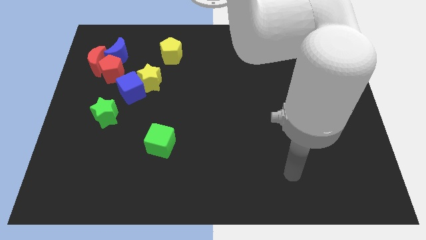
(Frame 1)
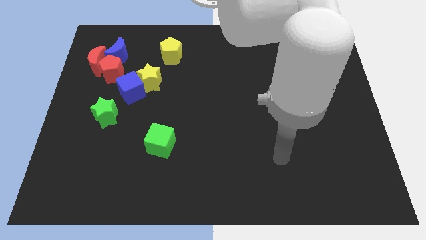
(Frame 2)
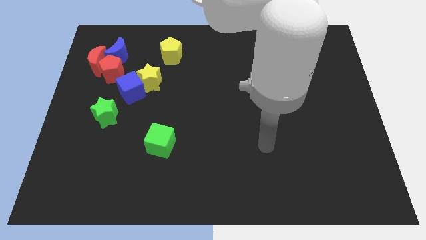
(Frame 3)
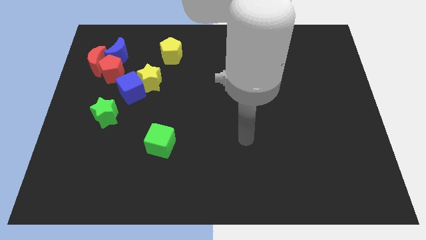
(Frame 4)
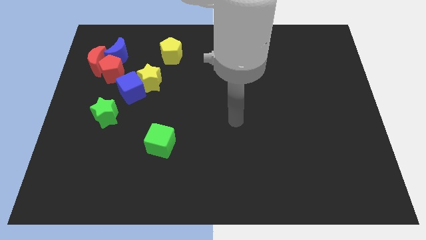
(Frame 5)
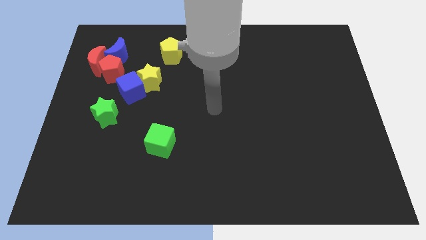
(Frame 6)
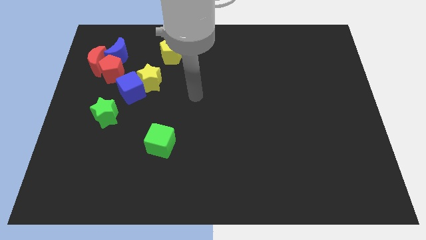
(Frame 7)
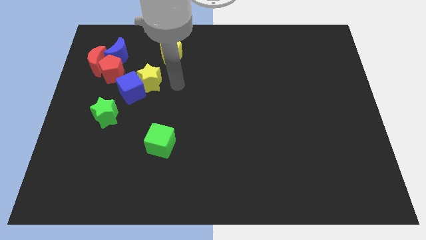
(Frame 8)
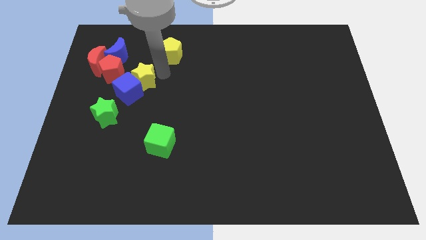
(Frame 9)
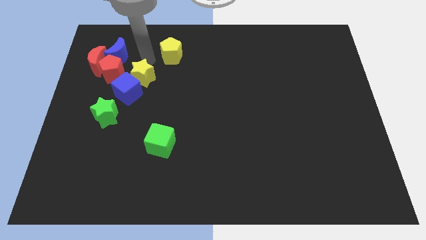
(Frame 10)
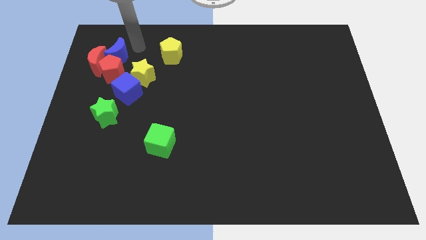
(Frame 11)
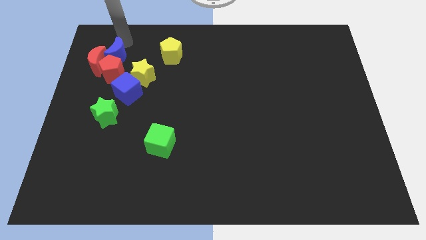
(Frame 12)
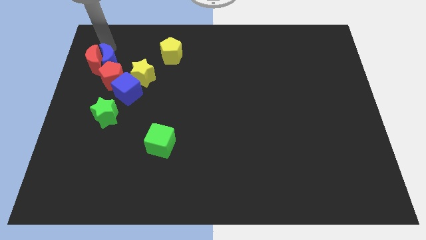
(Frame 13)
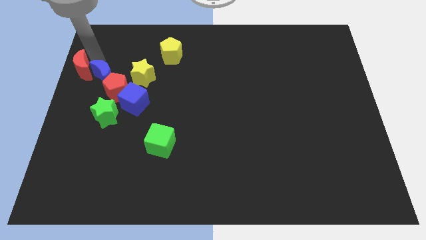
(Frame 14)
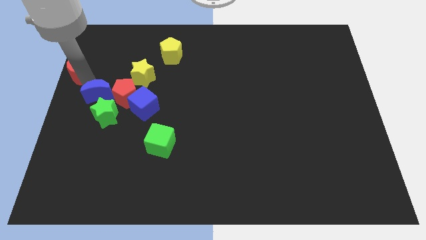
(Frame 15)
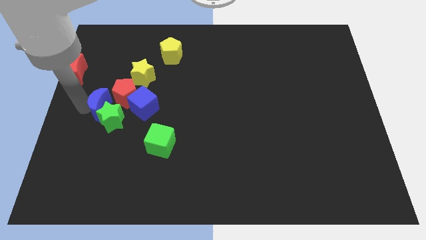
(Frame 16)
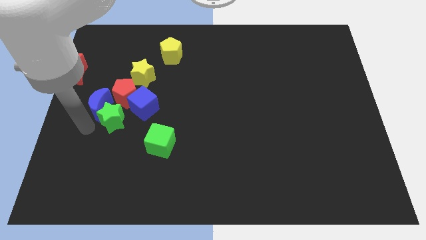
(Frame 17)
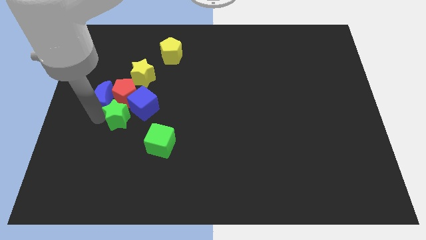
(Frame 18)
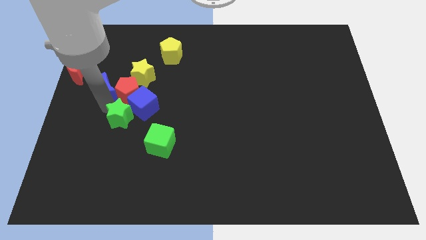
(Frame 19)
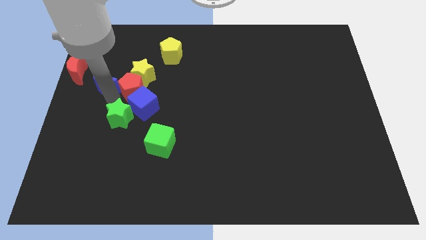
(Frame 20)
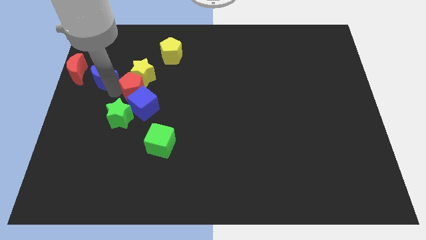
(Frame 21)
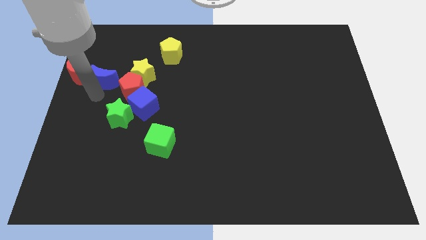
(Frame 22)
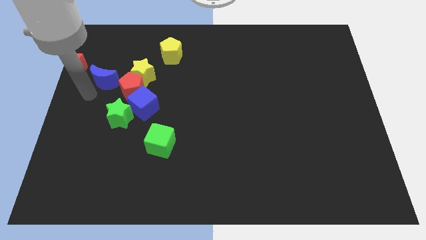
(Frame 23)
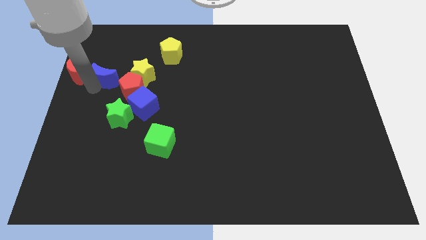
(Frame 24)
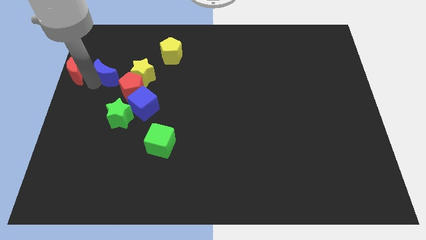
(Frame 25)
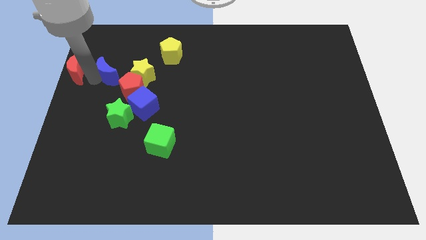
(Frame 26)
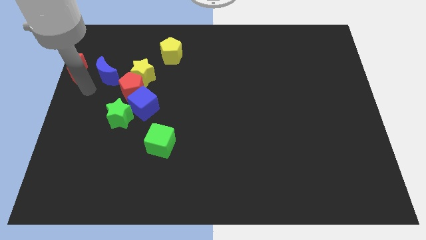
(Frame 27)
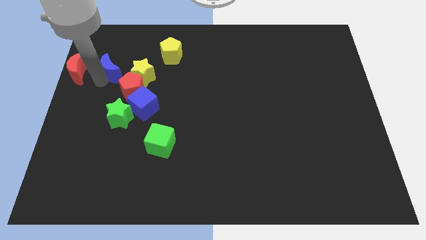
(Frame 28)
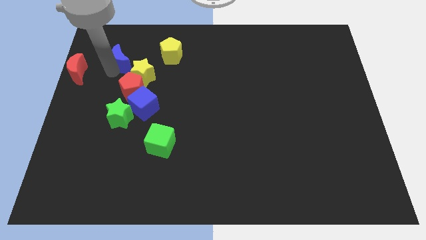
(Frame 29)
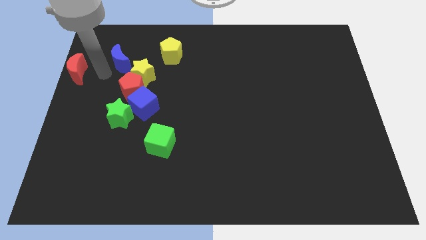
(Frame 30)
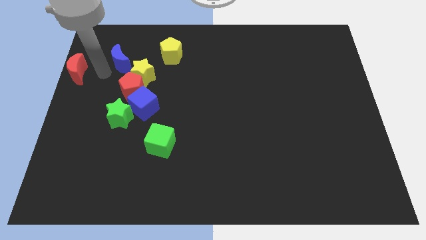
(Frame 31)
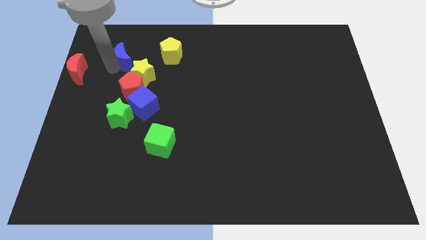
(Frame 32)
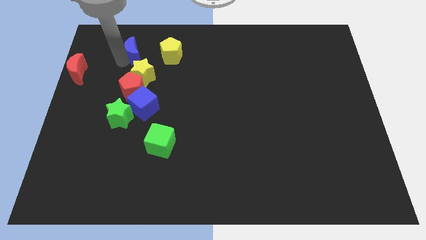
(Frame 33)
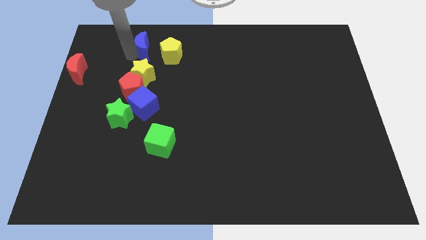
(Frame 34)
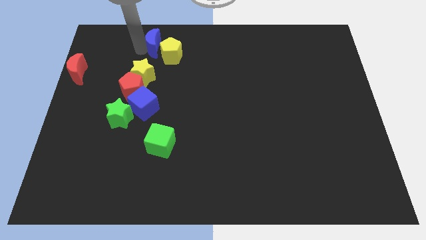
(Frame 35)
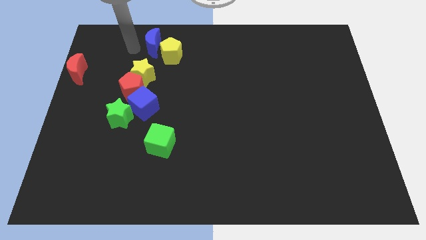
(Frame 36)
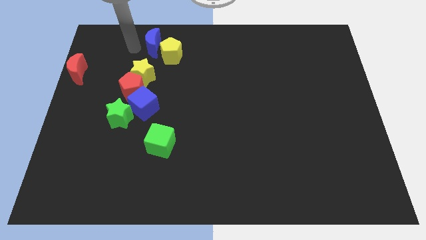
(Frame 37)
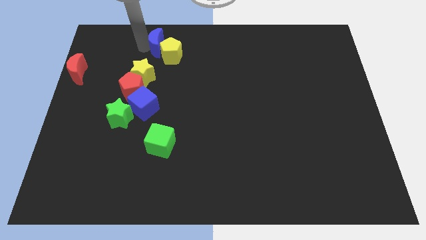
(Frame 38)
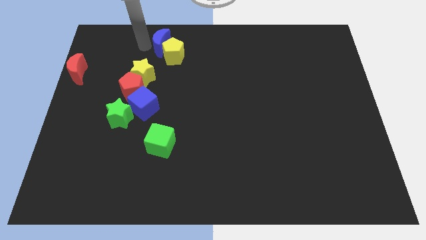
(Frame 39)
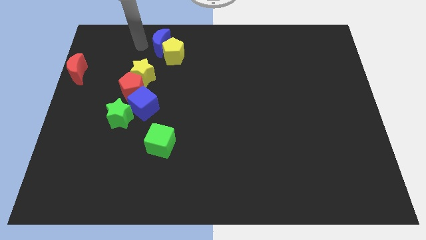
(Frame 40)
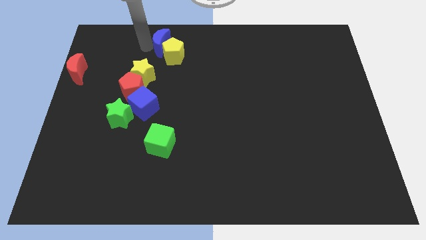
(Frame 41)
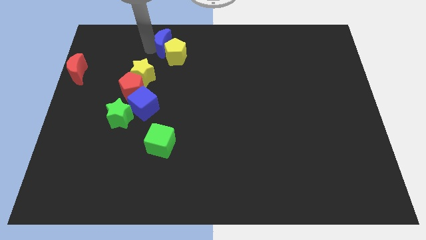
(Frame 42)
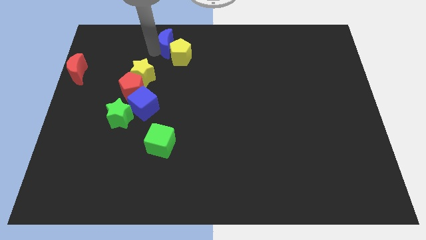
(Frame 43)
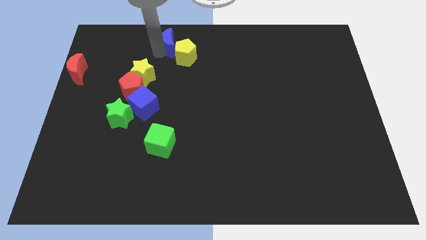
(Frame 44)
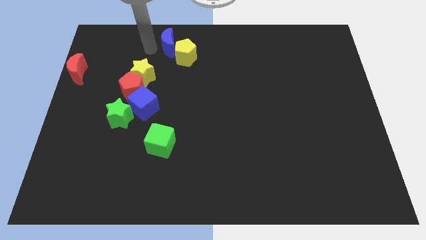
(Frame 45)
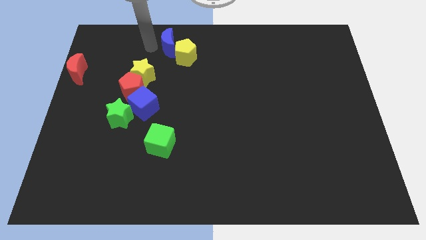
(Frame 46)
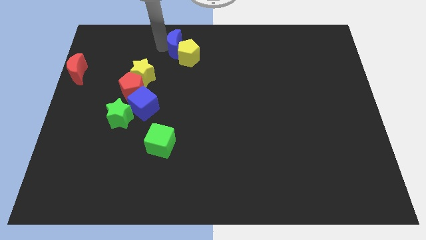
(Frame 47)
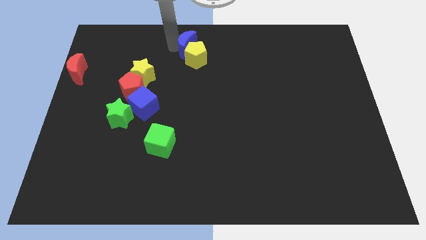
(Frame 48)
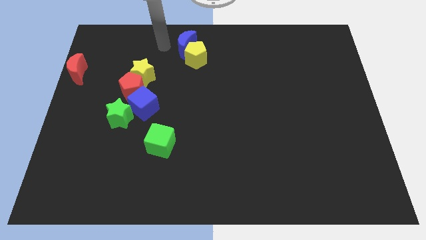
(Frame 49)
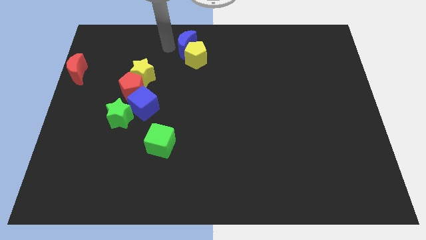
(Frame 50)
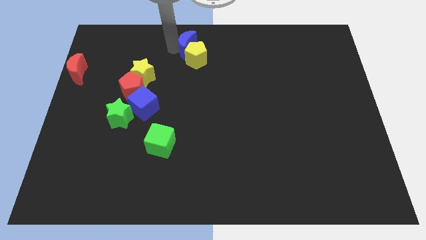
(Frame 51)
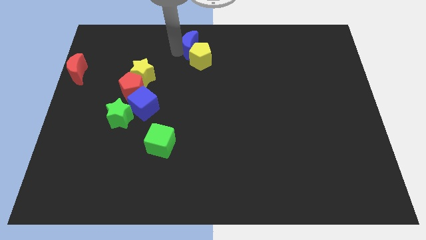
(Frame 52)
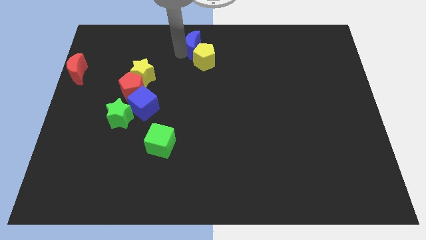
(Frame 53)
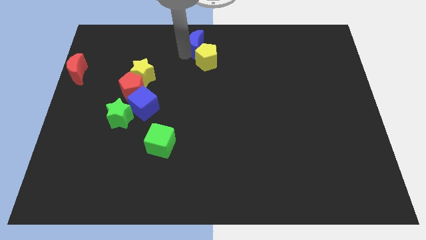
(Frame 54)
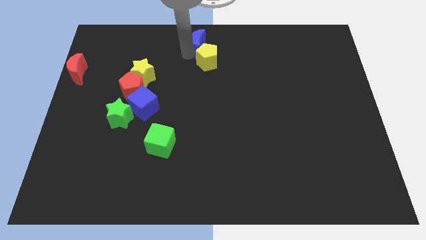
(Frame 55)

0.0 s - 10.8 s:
slide the blue moon right

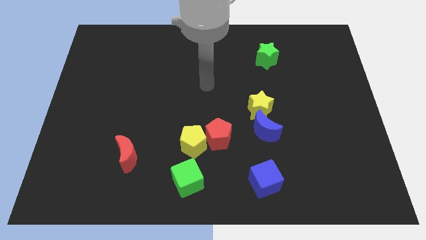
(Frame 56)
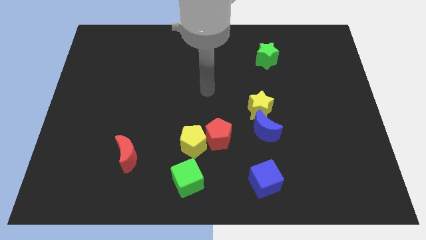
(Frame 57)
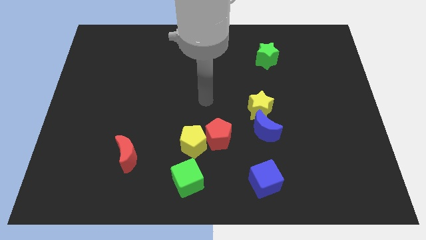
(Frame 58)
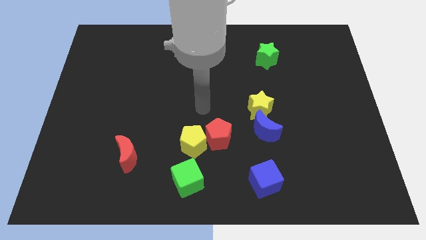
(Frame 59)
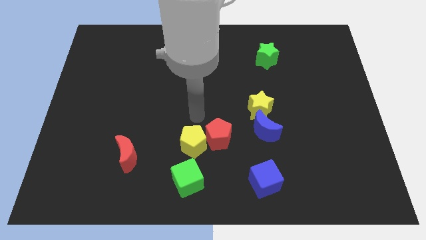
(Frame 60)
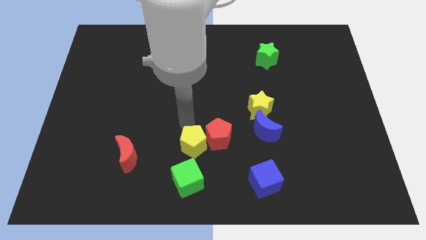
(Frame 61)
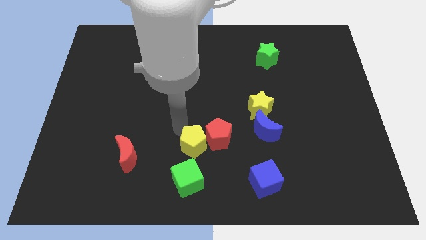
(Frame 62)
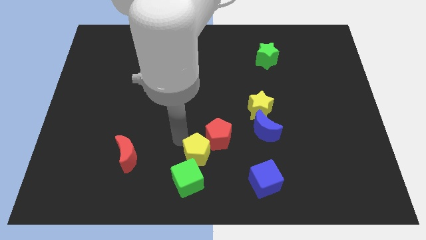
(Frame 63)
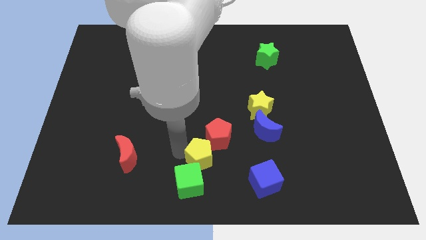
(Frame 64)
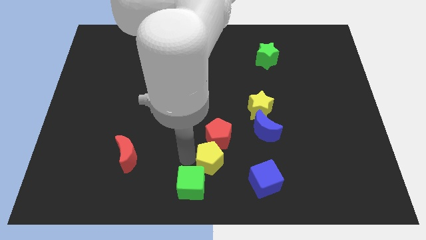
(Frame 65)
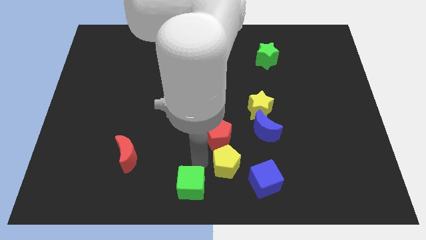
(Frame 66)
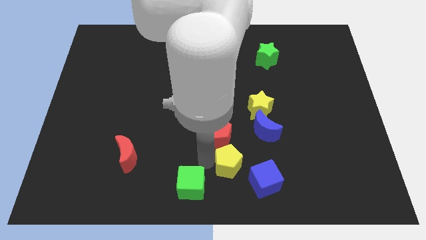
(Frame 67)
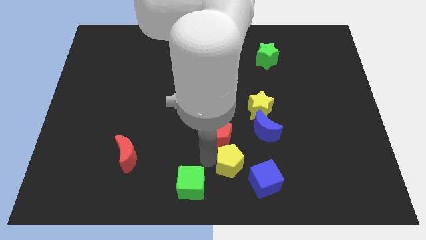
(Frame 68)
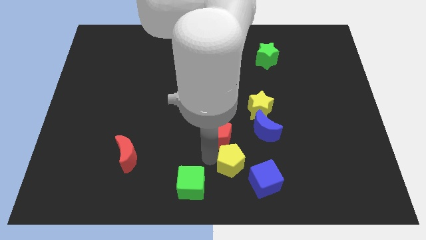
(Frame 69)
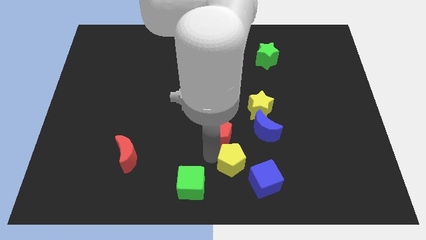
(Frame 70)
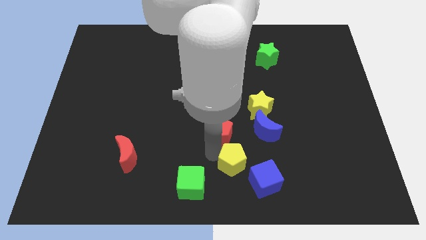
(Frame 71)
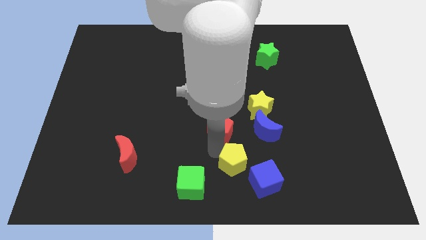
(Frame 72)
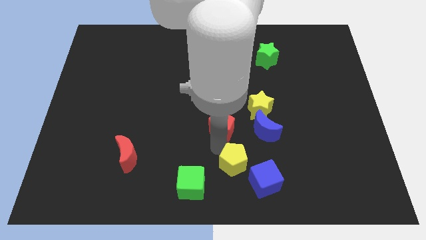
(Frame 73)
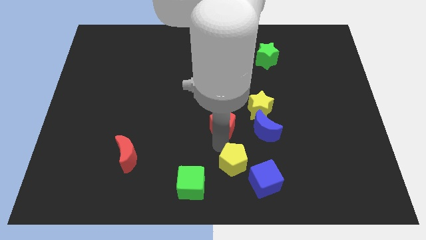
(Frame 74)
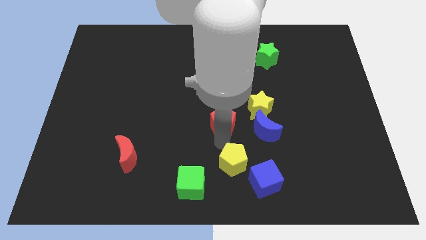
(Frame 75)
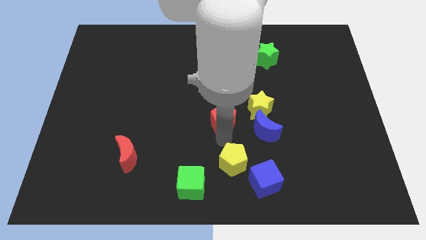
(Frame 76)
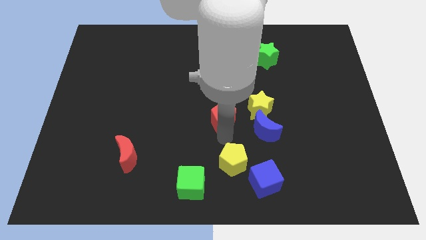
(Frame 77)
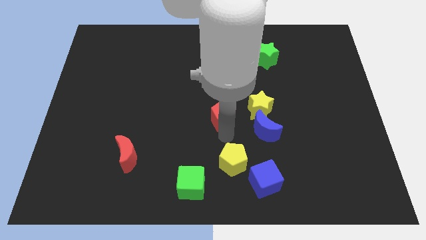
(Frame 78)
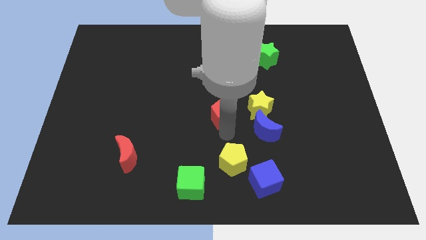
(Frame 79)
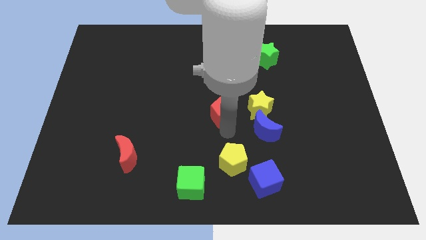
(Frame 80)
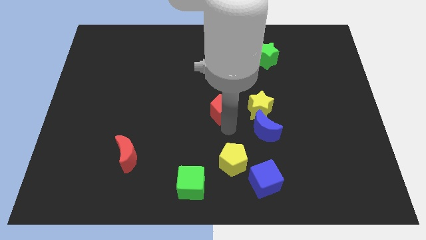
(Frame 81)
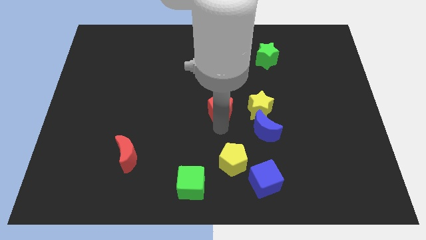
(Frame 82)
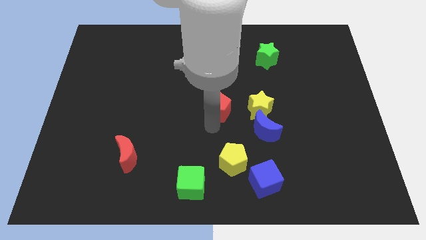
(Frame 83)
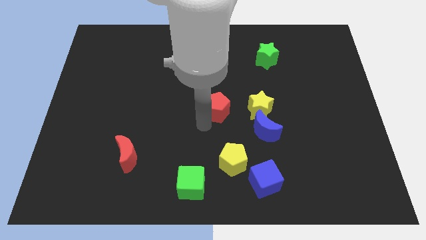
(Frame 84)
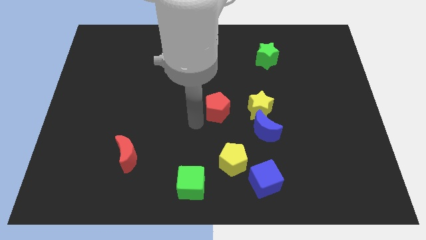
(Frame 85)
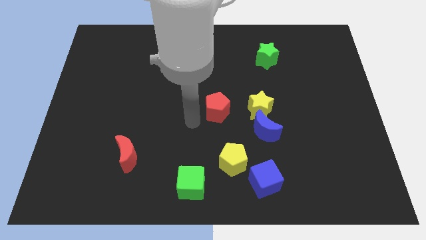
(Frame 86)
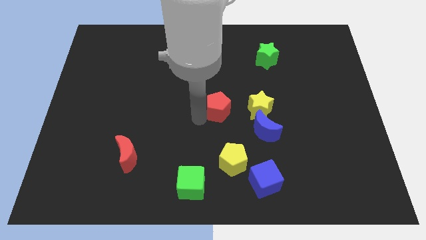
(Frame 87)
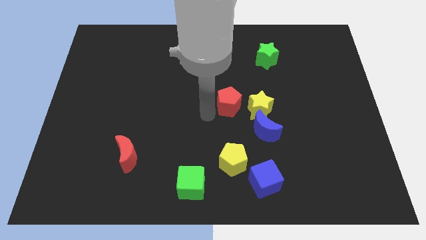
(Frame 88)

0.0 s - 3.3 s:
slightly move the red pentagon up and then right
